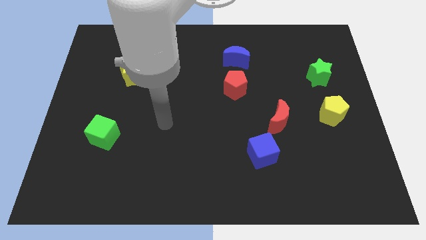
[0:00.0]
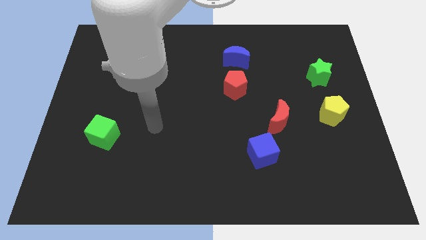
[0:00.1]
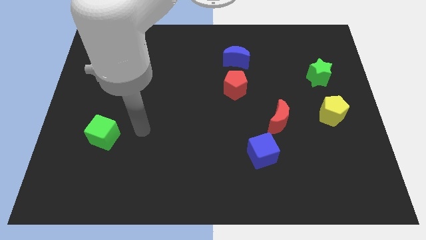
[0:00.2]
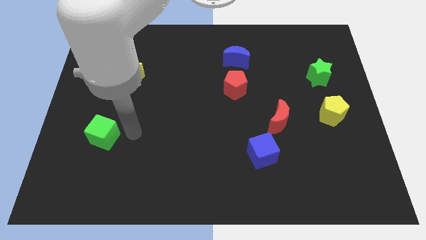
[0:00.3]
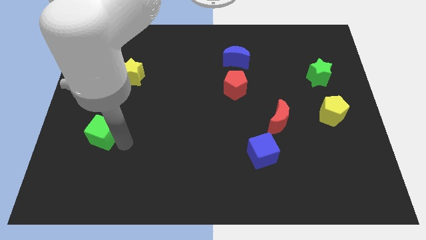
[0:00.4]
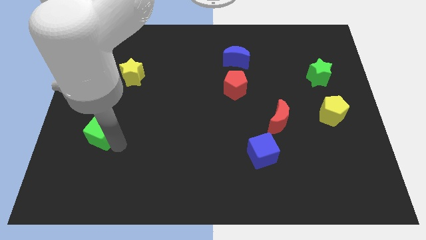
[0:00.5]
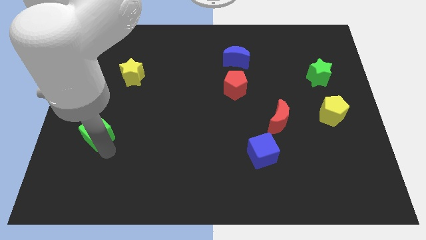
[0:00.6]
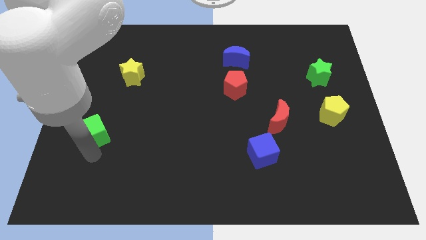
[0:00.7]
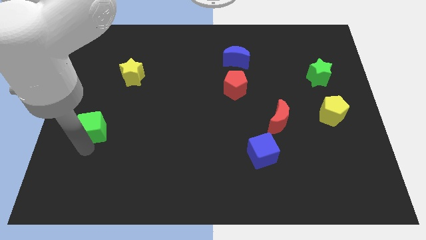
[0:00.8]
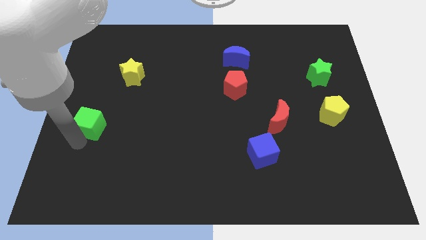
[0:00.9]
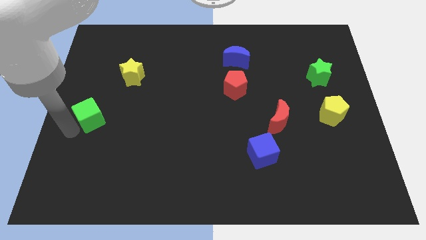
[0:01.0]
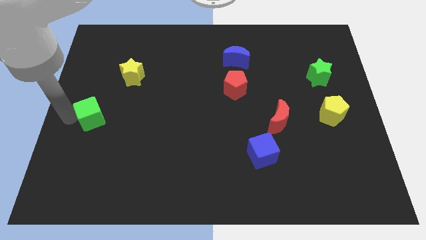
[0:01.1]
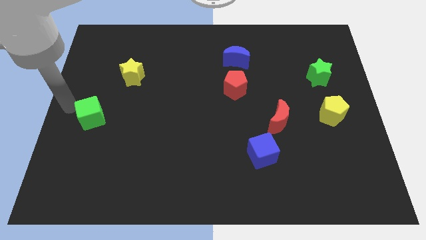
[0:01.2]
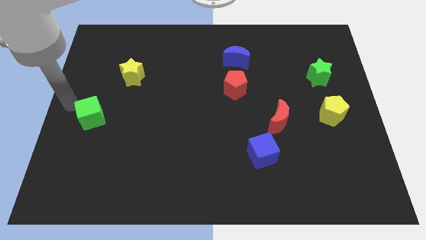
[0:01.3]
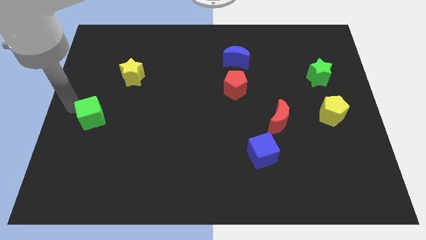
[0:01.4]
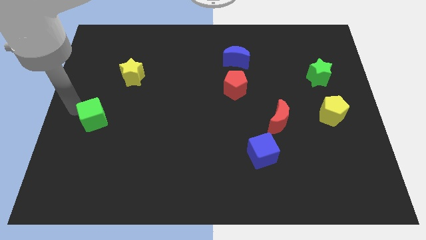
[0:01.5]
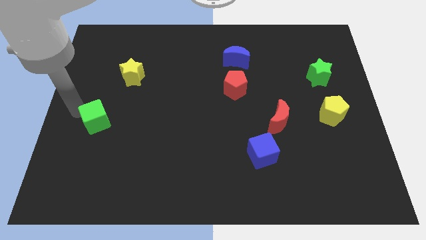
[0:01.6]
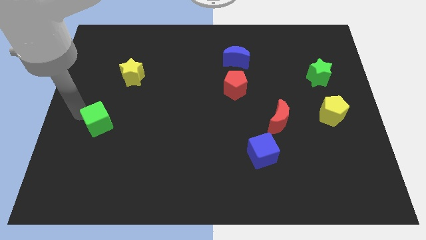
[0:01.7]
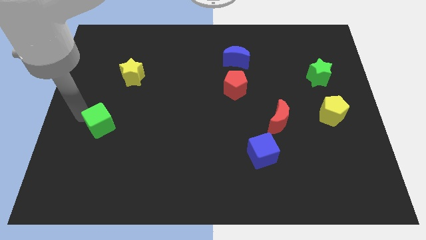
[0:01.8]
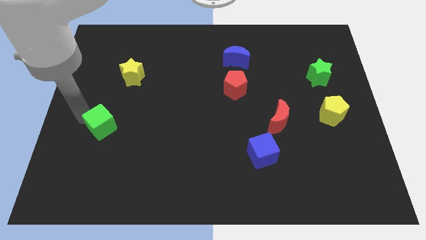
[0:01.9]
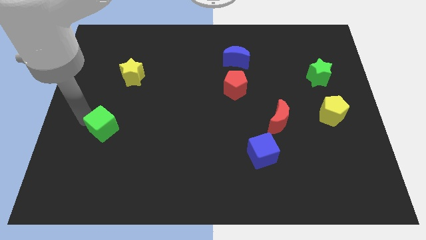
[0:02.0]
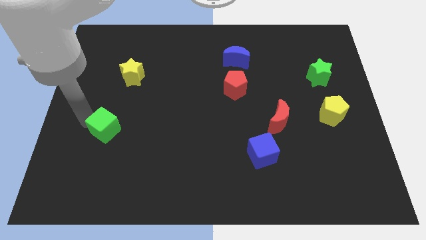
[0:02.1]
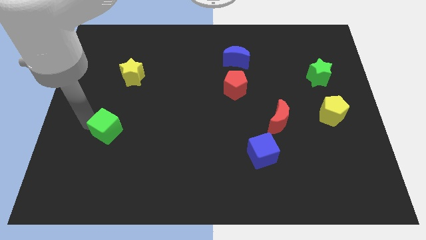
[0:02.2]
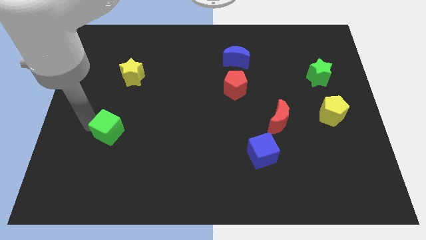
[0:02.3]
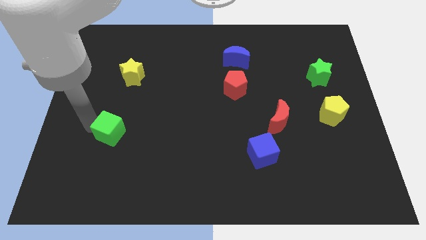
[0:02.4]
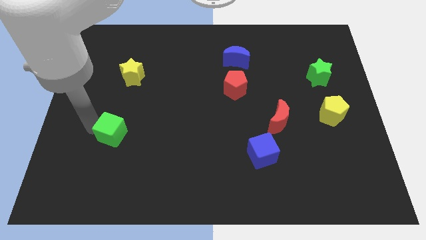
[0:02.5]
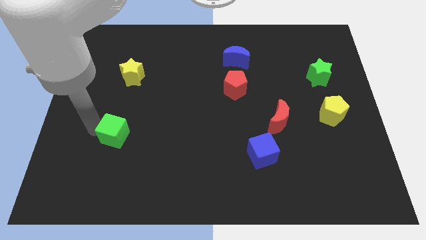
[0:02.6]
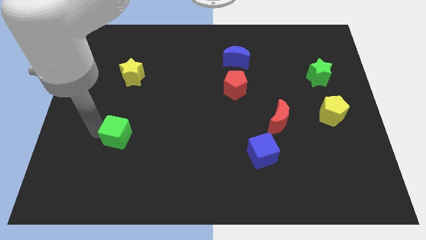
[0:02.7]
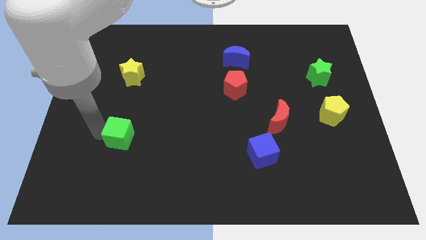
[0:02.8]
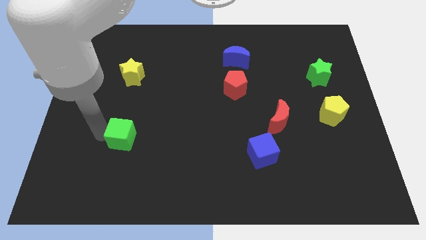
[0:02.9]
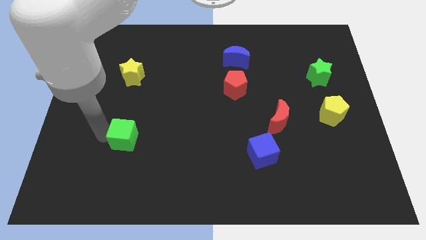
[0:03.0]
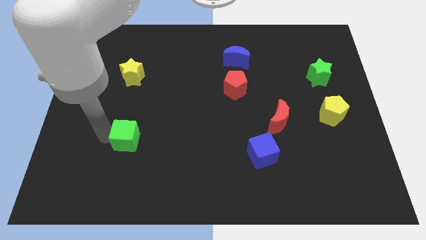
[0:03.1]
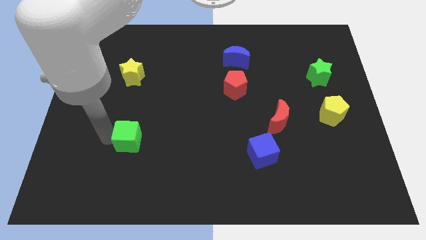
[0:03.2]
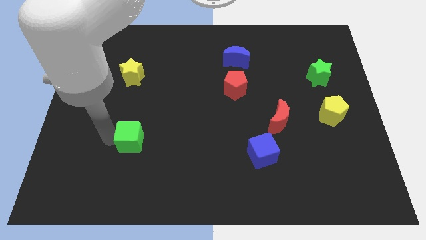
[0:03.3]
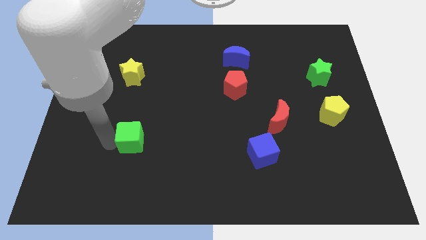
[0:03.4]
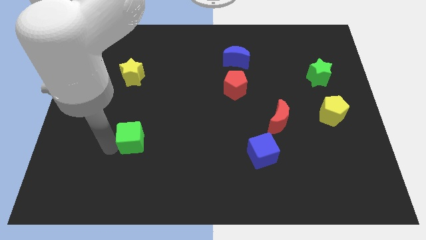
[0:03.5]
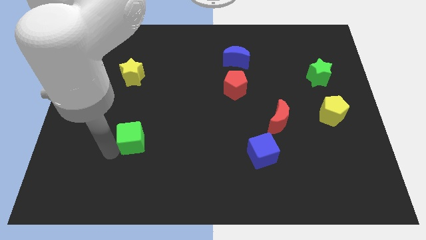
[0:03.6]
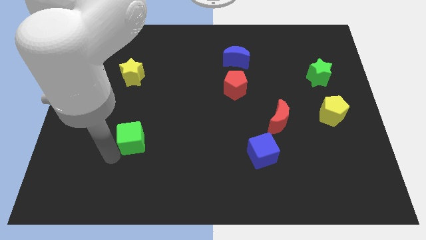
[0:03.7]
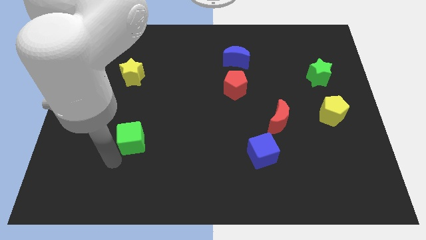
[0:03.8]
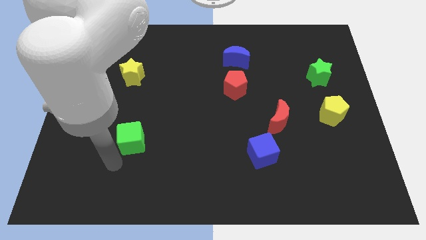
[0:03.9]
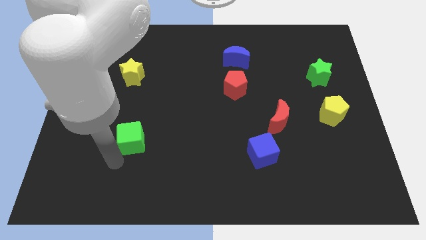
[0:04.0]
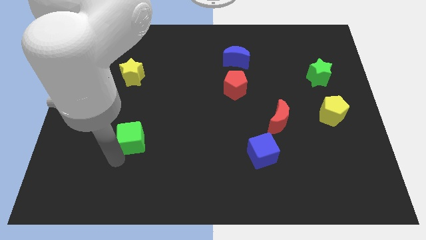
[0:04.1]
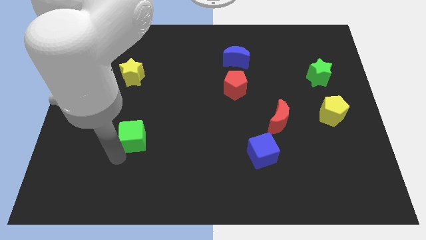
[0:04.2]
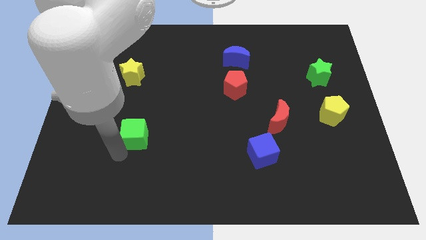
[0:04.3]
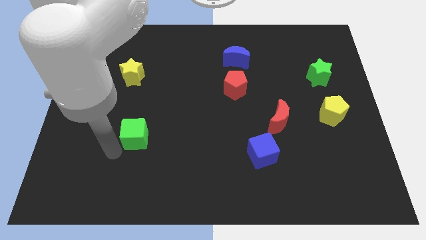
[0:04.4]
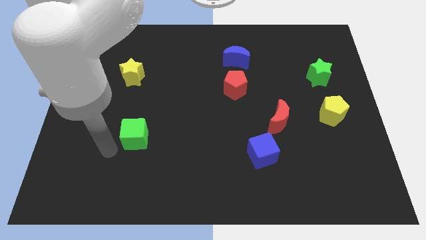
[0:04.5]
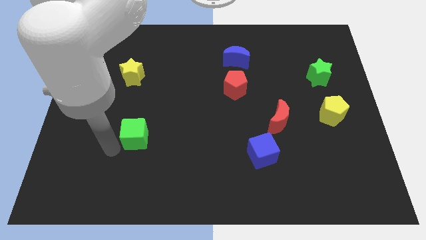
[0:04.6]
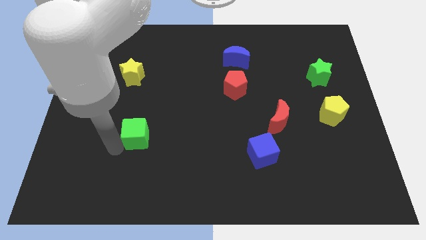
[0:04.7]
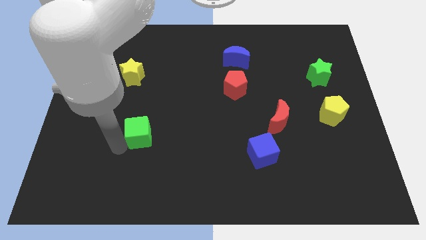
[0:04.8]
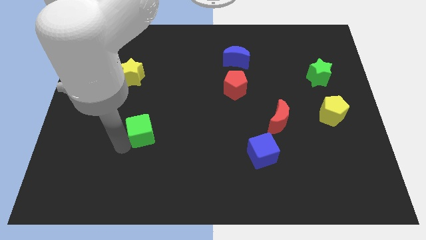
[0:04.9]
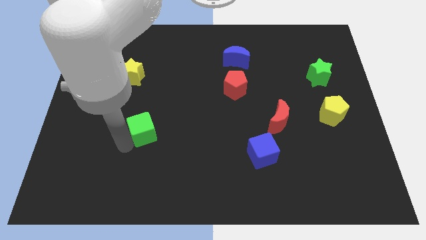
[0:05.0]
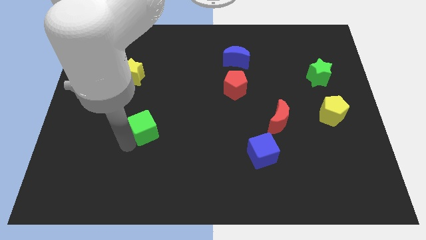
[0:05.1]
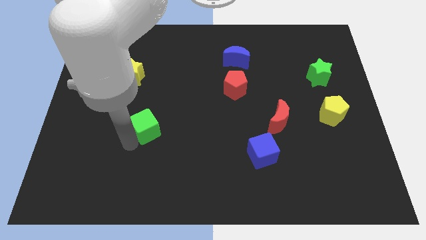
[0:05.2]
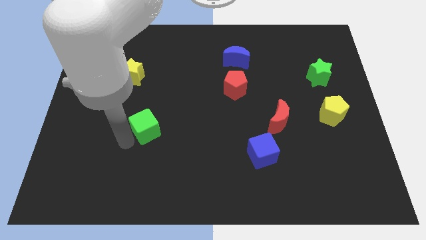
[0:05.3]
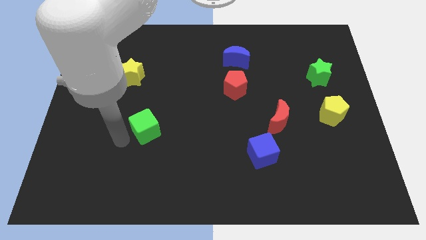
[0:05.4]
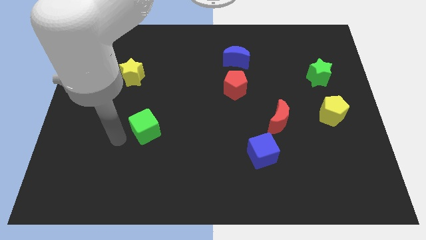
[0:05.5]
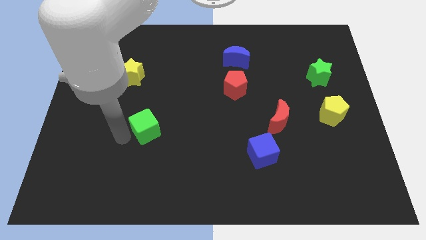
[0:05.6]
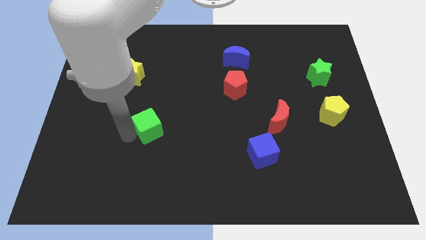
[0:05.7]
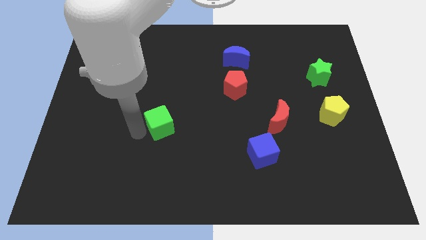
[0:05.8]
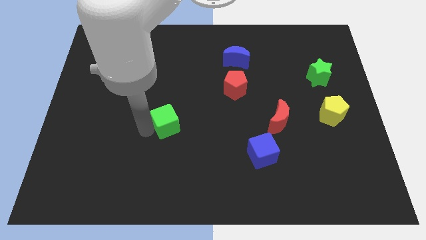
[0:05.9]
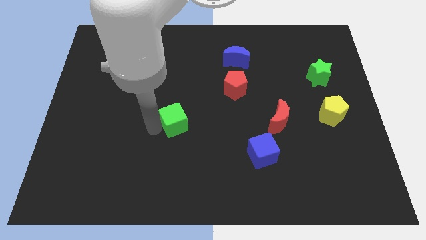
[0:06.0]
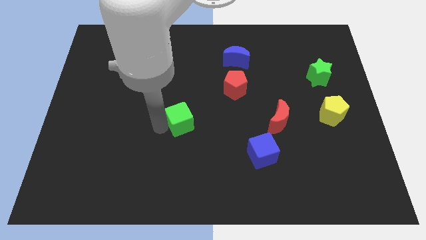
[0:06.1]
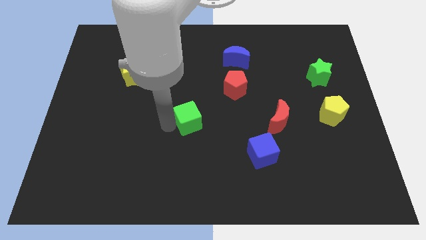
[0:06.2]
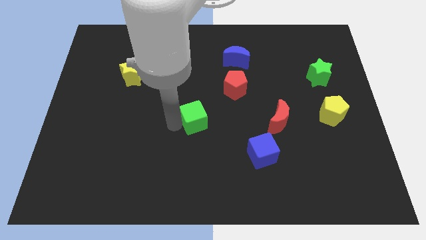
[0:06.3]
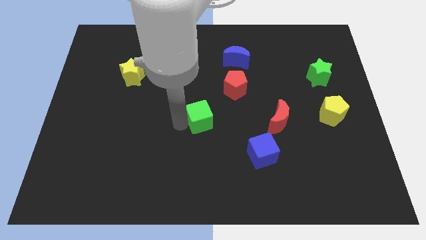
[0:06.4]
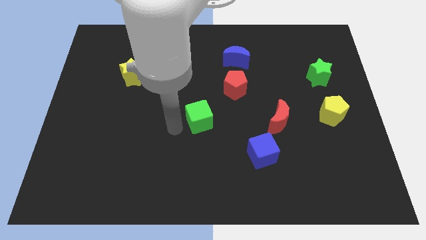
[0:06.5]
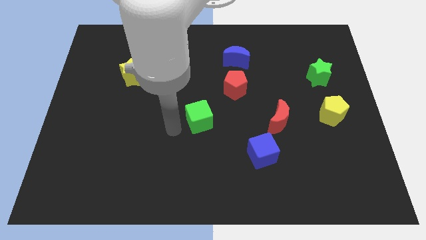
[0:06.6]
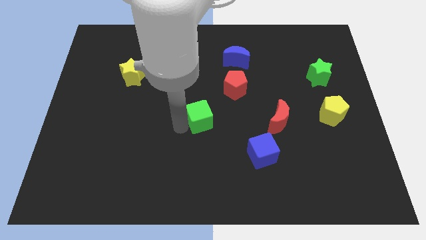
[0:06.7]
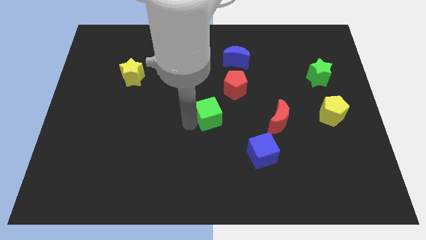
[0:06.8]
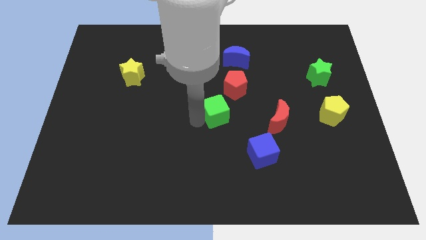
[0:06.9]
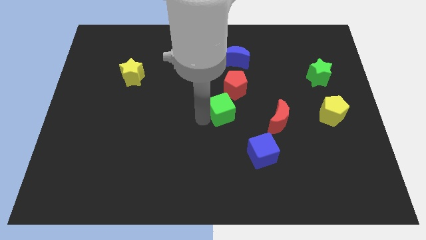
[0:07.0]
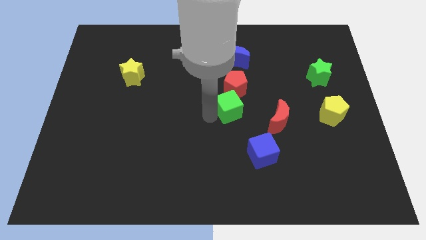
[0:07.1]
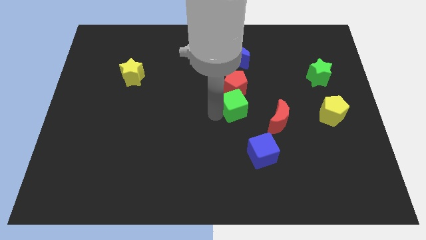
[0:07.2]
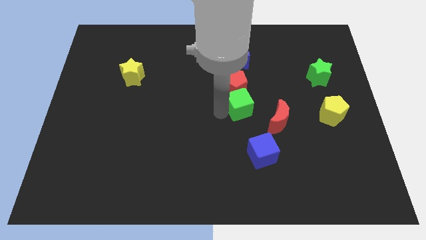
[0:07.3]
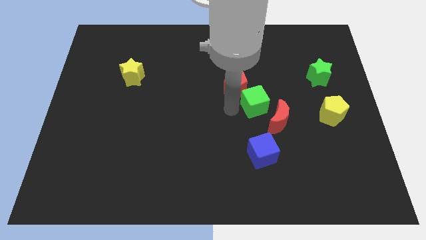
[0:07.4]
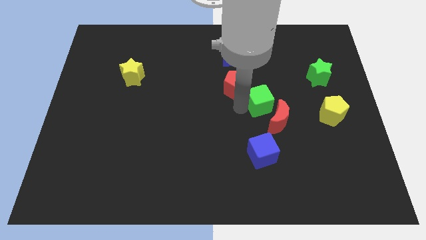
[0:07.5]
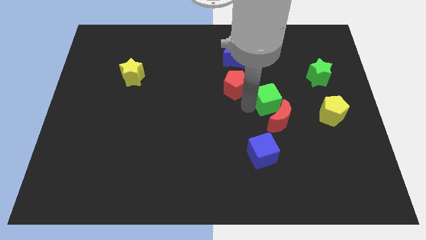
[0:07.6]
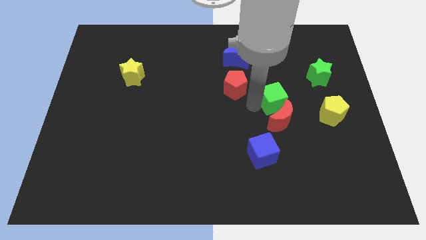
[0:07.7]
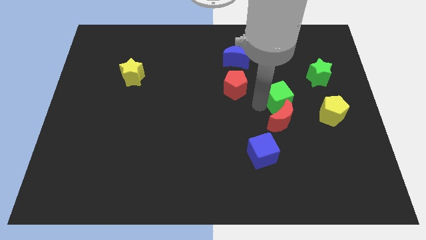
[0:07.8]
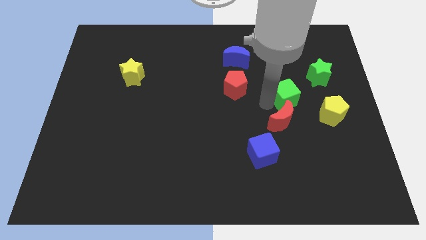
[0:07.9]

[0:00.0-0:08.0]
put the green cube diagonally down and to the left of the green star
